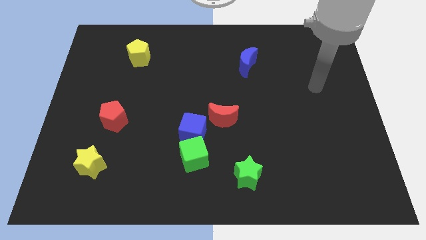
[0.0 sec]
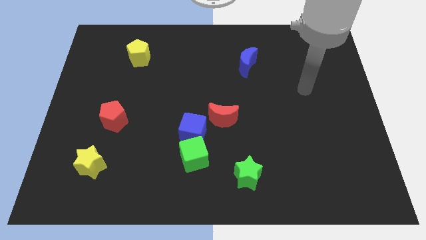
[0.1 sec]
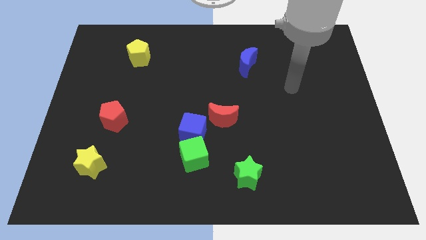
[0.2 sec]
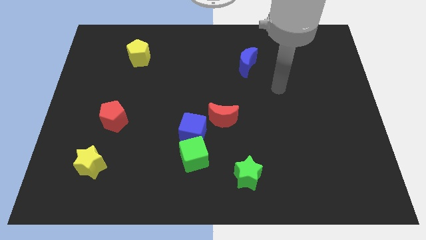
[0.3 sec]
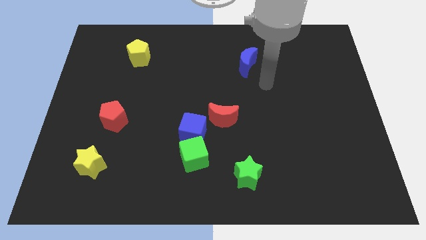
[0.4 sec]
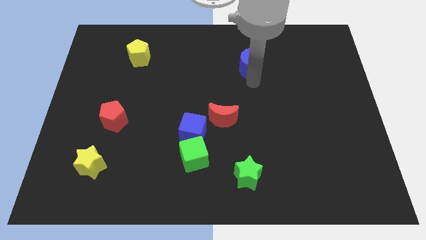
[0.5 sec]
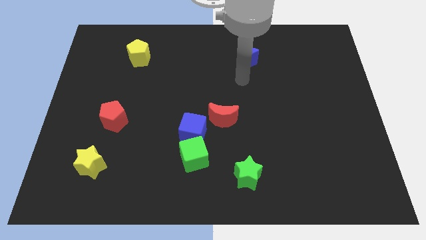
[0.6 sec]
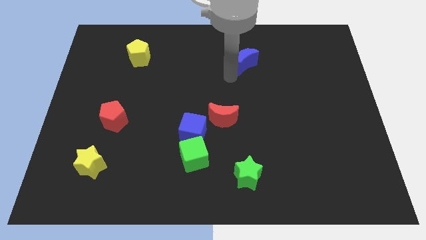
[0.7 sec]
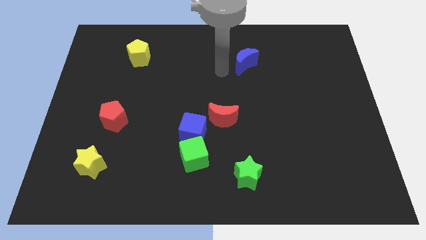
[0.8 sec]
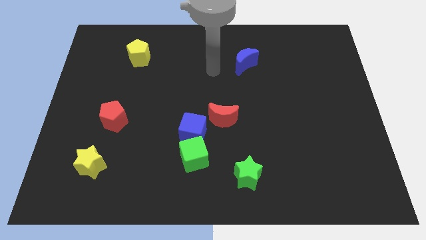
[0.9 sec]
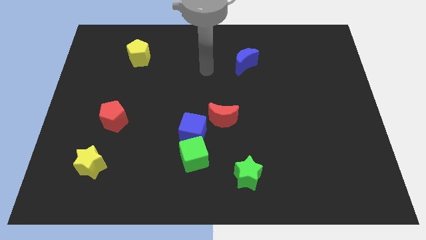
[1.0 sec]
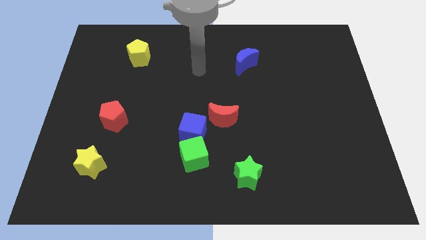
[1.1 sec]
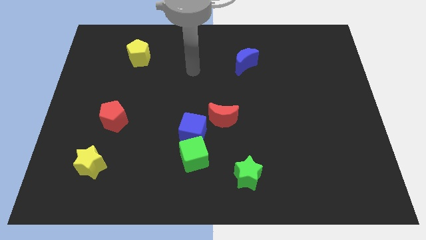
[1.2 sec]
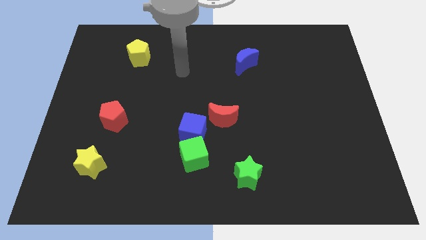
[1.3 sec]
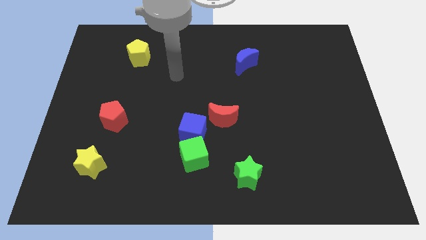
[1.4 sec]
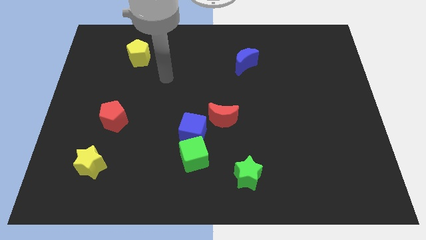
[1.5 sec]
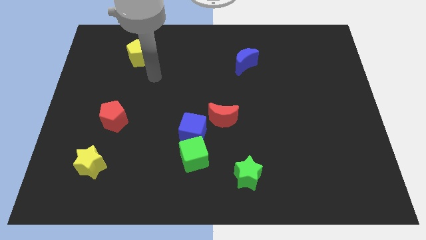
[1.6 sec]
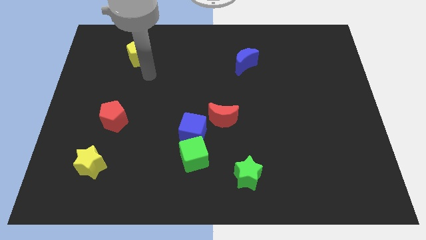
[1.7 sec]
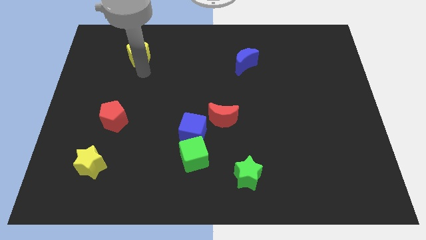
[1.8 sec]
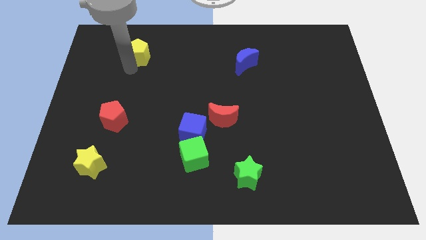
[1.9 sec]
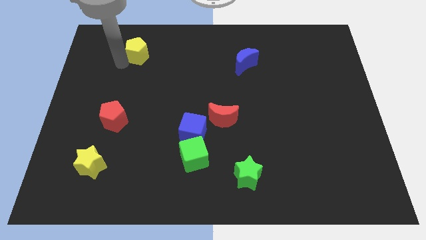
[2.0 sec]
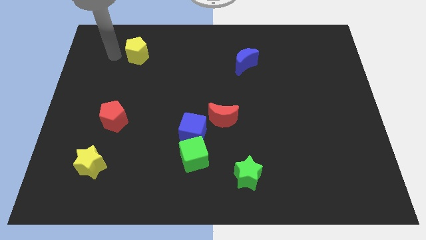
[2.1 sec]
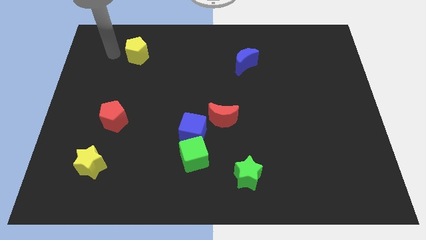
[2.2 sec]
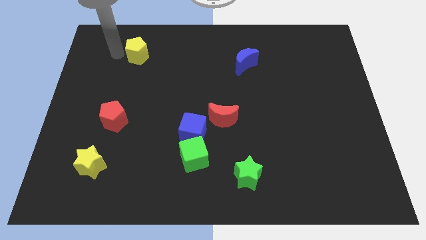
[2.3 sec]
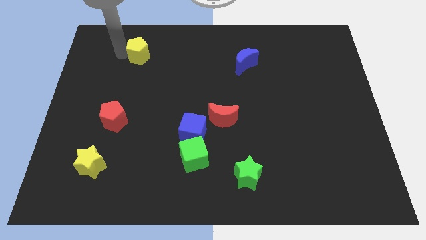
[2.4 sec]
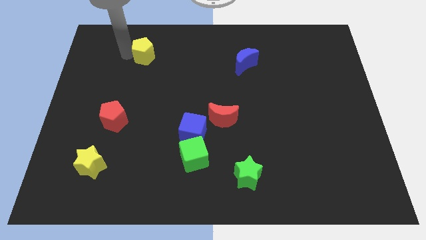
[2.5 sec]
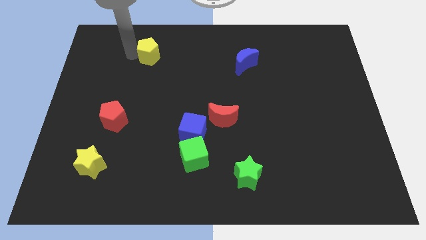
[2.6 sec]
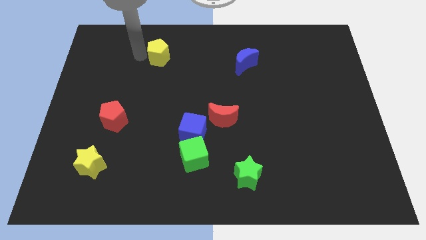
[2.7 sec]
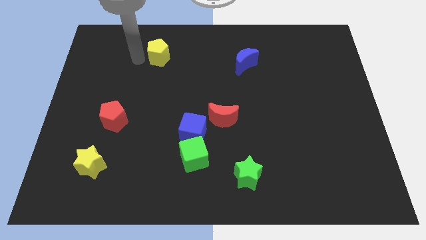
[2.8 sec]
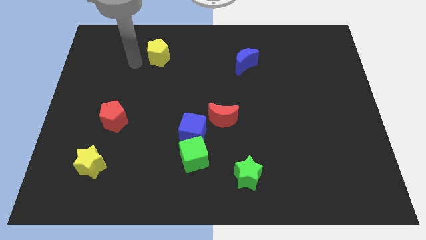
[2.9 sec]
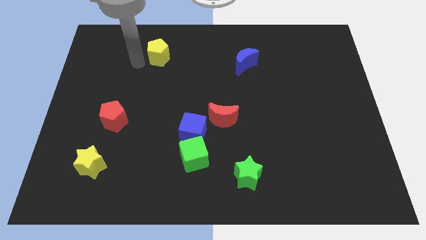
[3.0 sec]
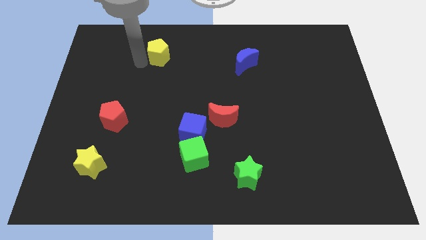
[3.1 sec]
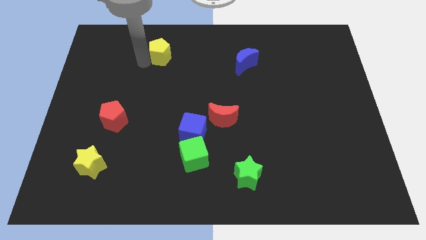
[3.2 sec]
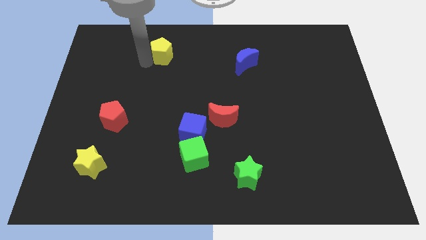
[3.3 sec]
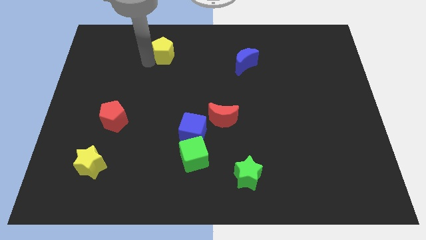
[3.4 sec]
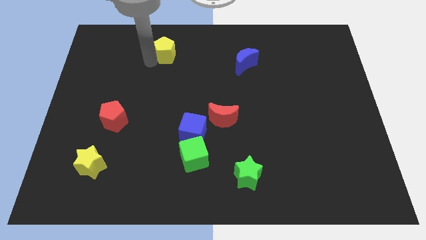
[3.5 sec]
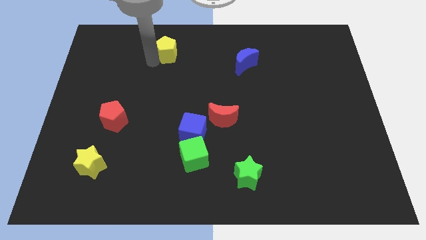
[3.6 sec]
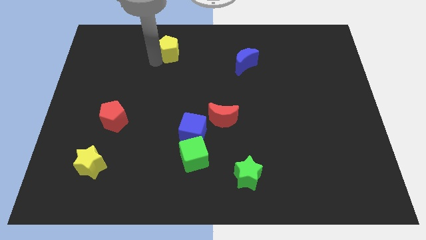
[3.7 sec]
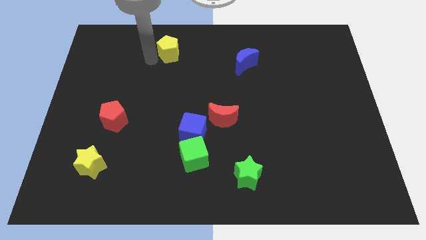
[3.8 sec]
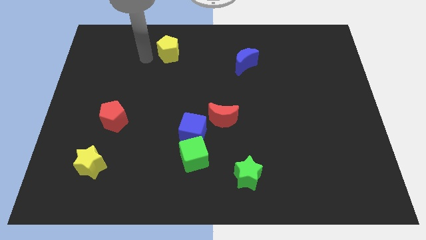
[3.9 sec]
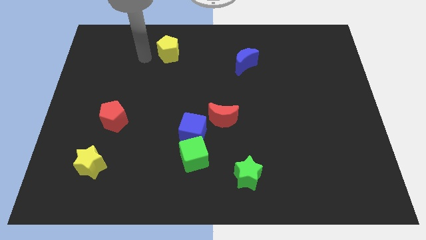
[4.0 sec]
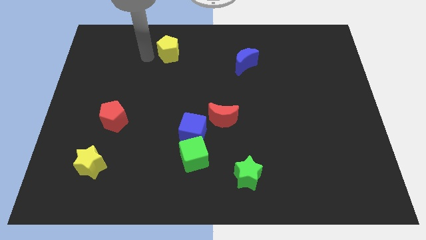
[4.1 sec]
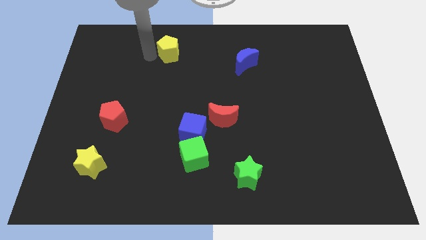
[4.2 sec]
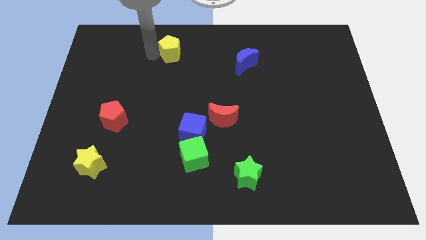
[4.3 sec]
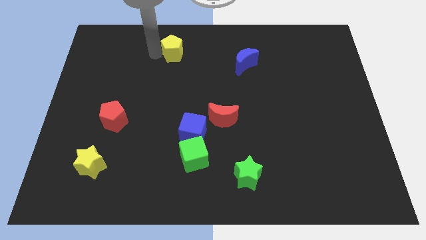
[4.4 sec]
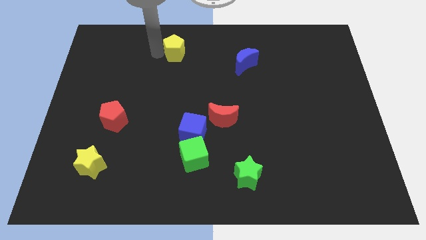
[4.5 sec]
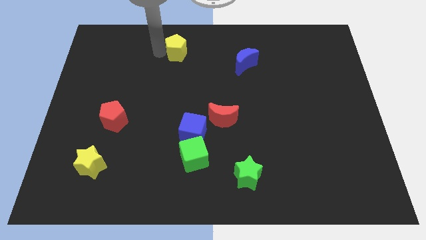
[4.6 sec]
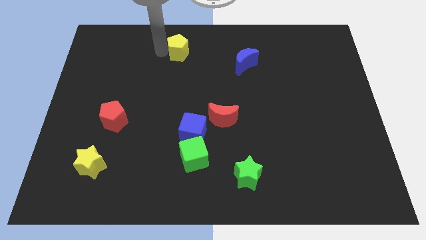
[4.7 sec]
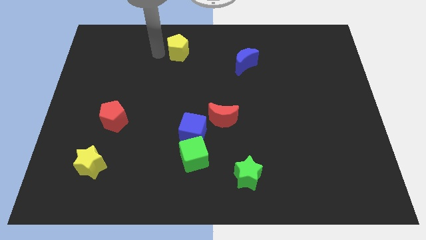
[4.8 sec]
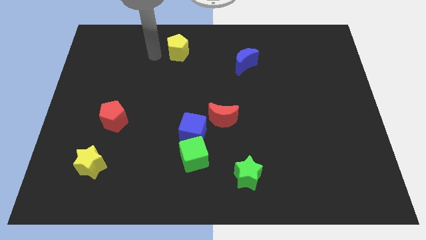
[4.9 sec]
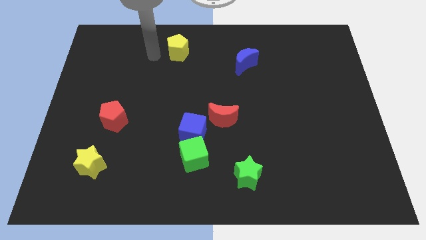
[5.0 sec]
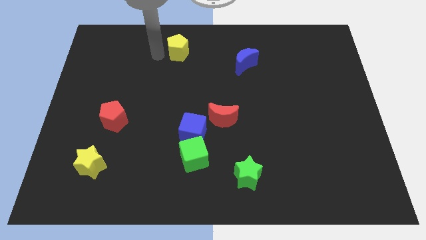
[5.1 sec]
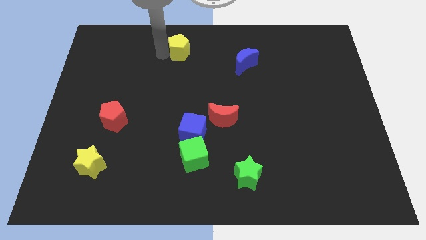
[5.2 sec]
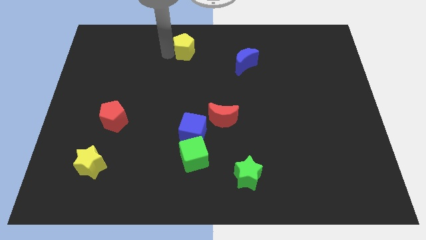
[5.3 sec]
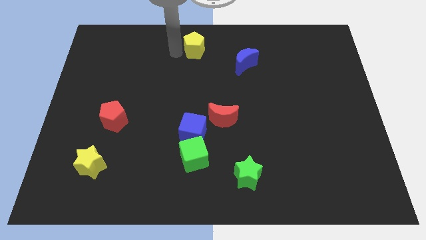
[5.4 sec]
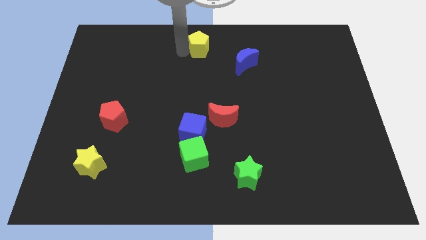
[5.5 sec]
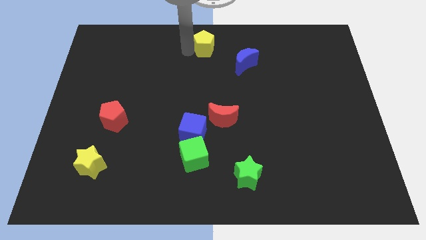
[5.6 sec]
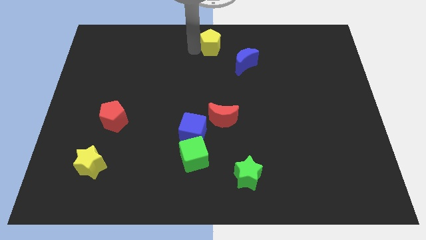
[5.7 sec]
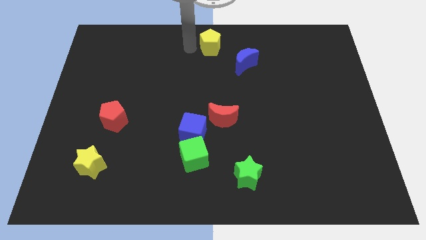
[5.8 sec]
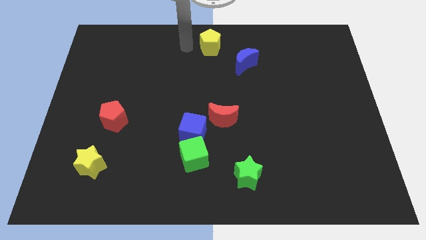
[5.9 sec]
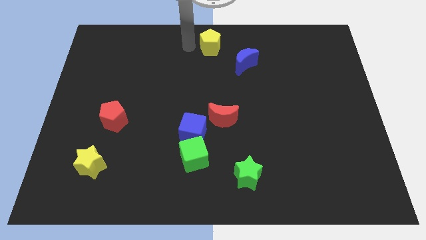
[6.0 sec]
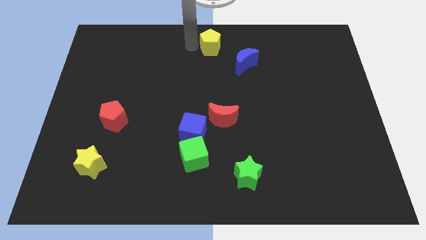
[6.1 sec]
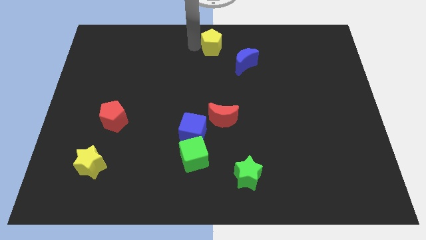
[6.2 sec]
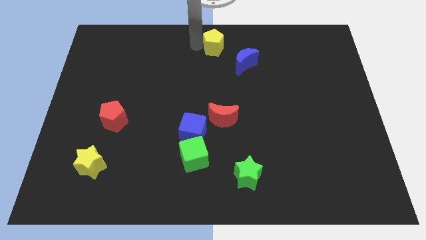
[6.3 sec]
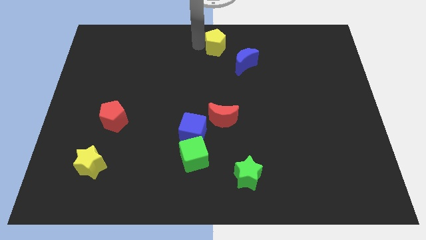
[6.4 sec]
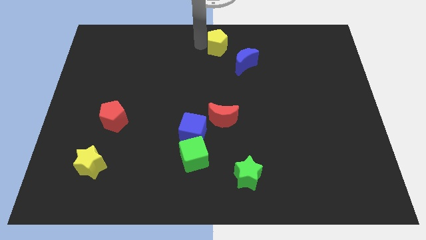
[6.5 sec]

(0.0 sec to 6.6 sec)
move the yellow pentagon right

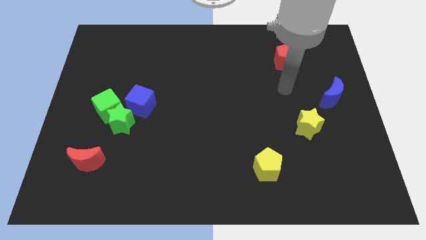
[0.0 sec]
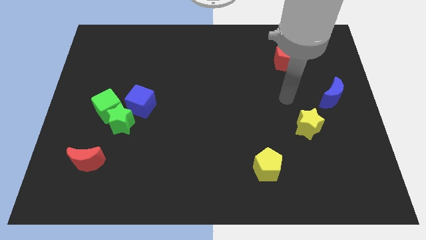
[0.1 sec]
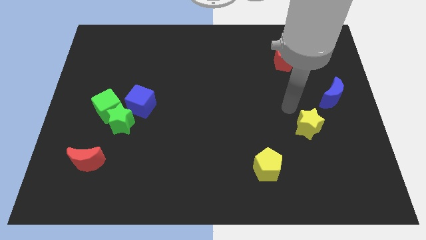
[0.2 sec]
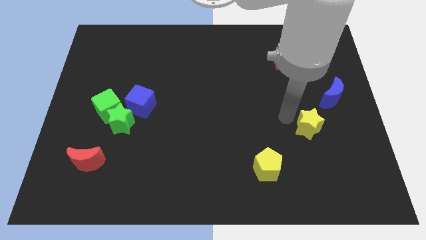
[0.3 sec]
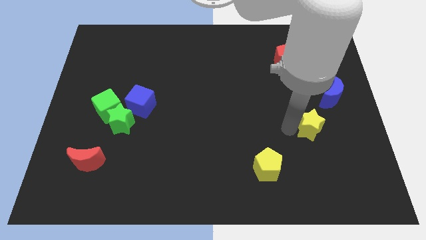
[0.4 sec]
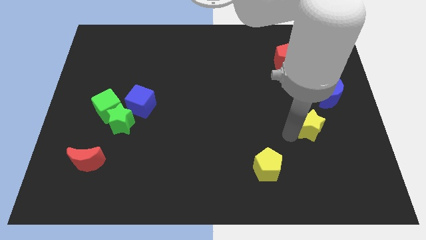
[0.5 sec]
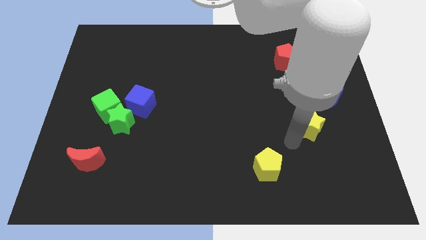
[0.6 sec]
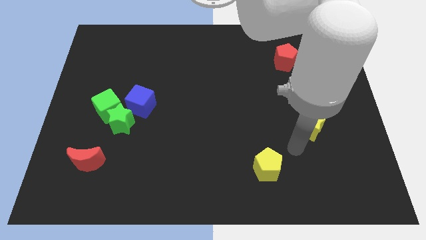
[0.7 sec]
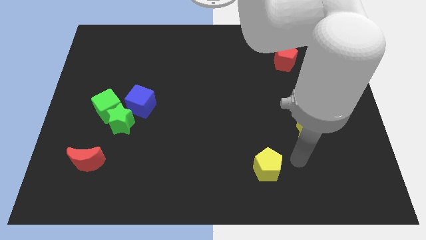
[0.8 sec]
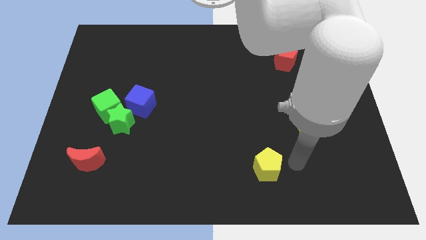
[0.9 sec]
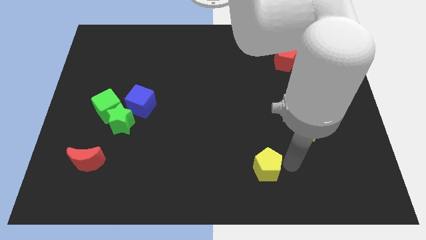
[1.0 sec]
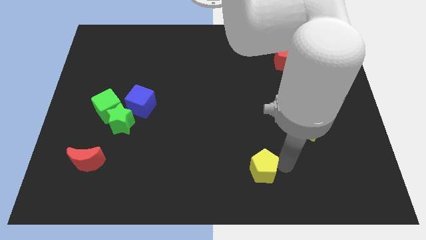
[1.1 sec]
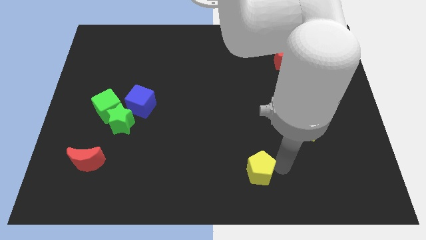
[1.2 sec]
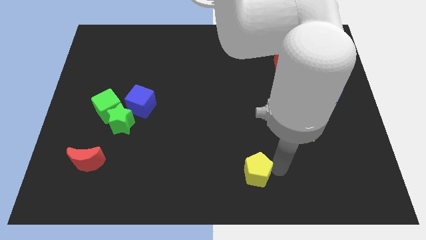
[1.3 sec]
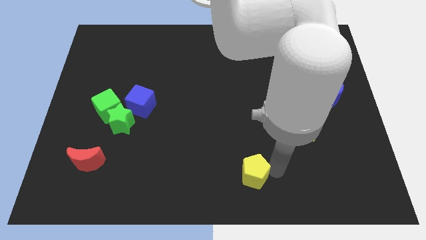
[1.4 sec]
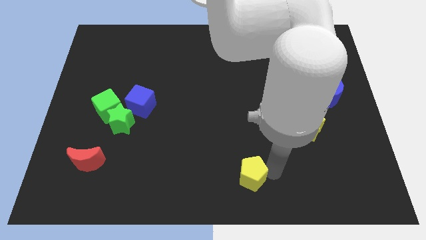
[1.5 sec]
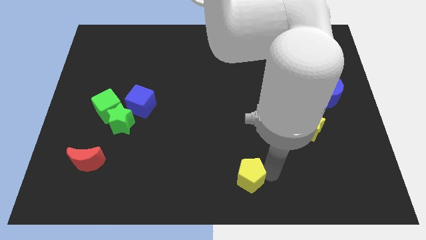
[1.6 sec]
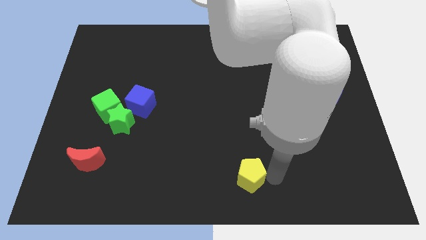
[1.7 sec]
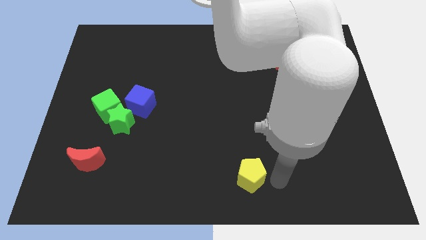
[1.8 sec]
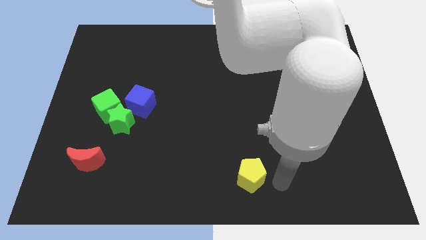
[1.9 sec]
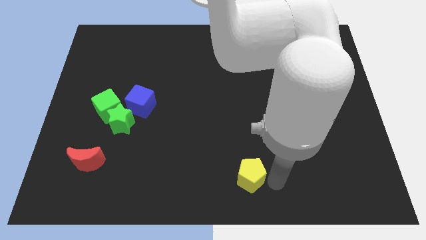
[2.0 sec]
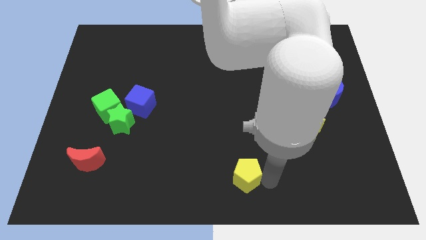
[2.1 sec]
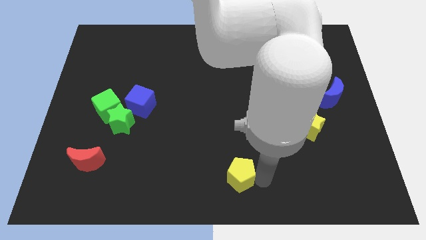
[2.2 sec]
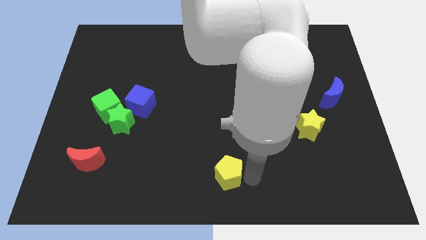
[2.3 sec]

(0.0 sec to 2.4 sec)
slightly move the yellow pentagon left
